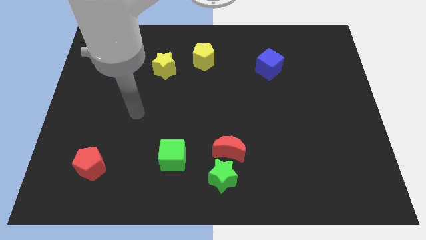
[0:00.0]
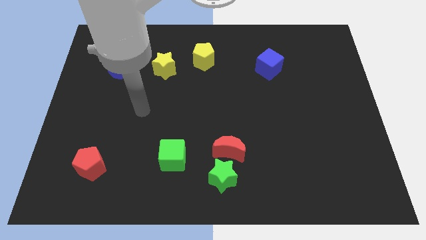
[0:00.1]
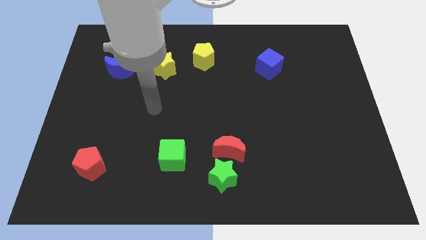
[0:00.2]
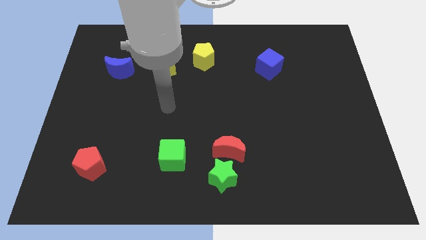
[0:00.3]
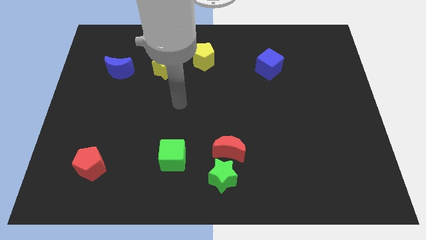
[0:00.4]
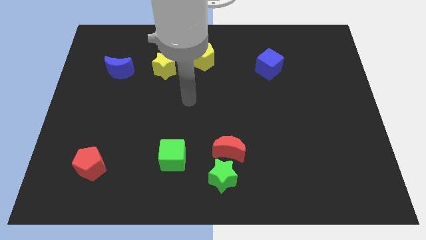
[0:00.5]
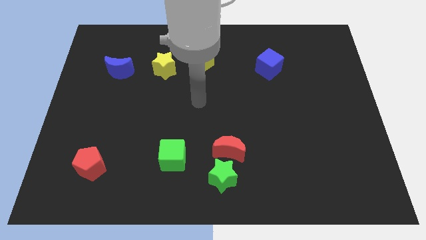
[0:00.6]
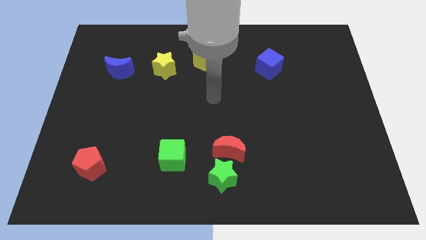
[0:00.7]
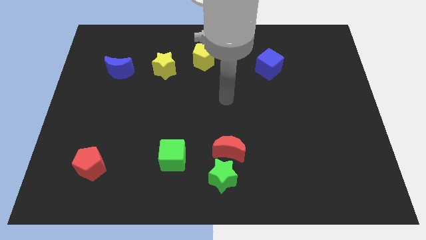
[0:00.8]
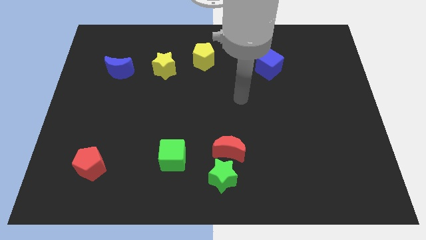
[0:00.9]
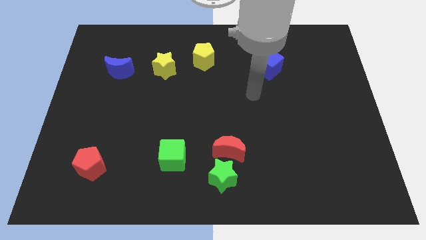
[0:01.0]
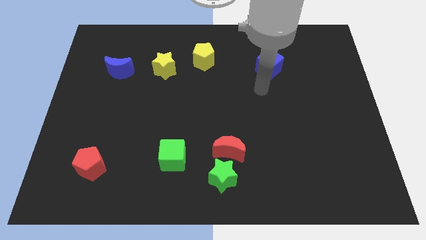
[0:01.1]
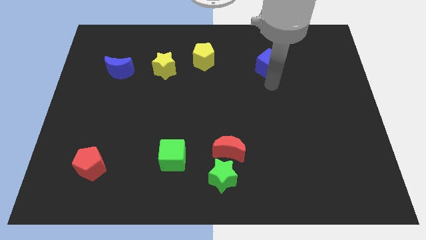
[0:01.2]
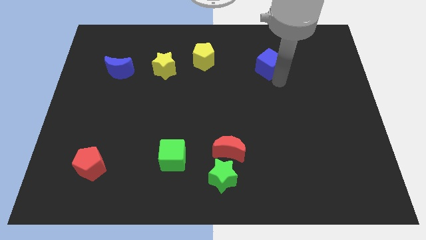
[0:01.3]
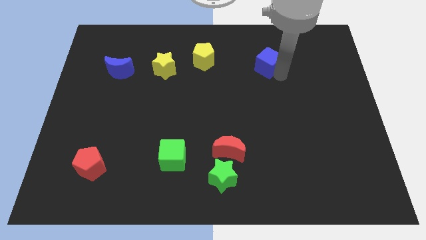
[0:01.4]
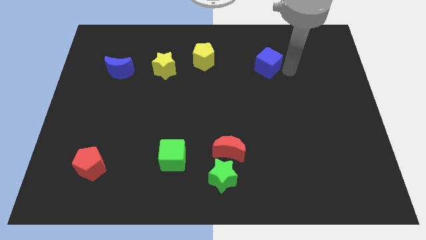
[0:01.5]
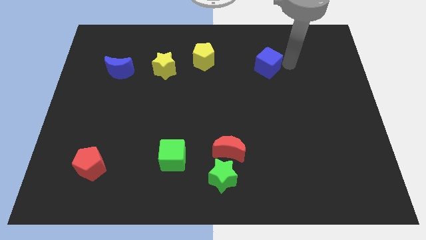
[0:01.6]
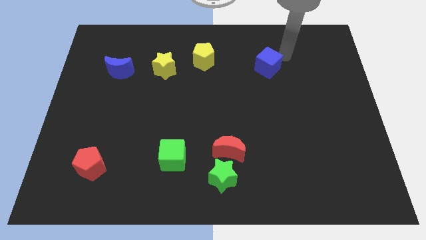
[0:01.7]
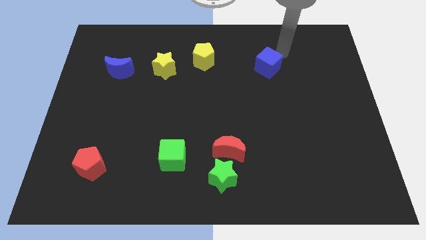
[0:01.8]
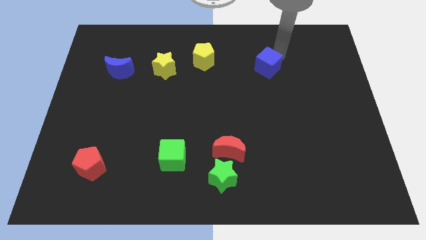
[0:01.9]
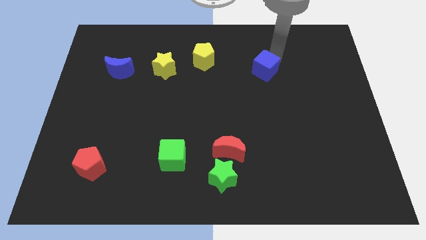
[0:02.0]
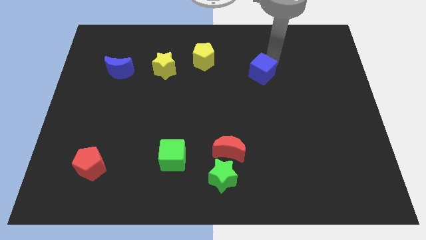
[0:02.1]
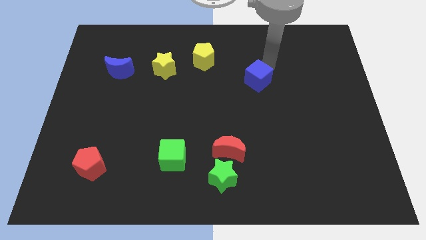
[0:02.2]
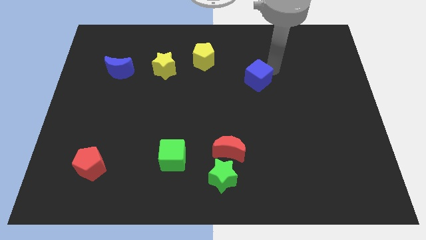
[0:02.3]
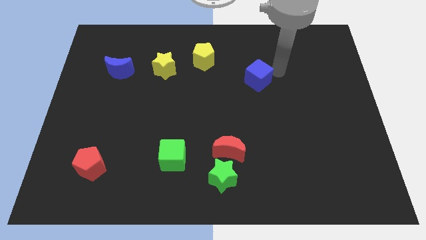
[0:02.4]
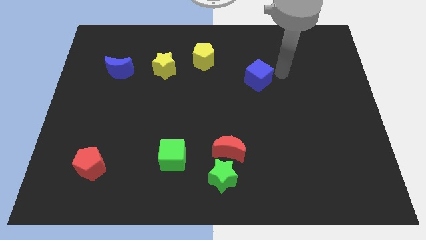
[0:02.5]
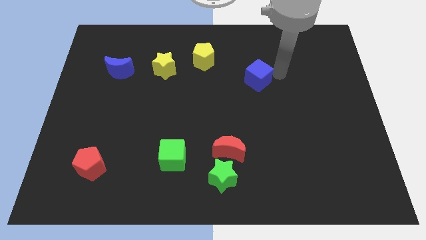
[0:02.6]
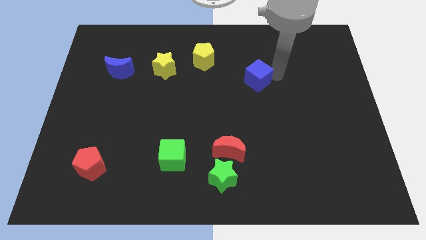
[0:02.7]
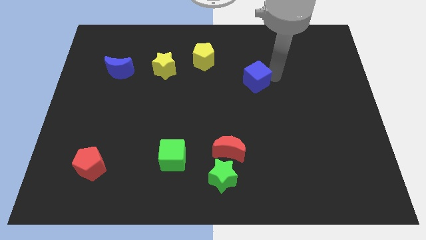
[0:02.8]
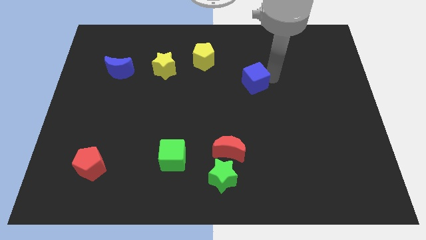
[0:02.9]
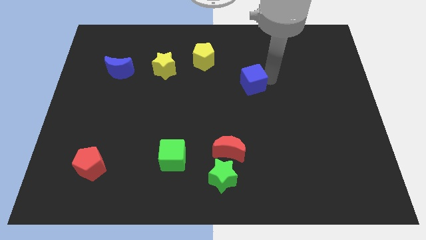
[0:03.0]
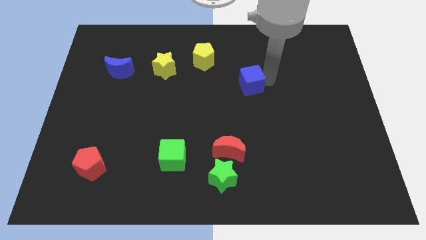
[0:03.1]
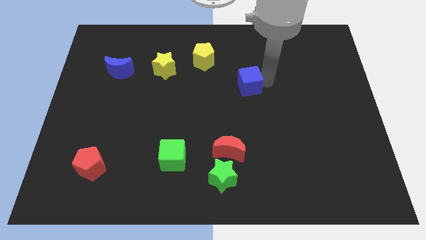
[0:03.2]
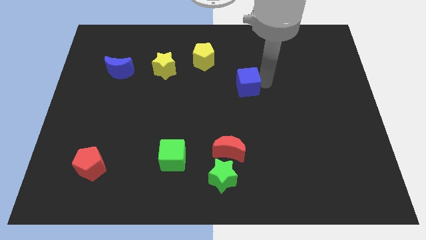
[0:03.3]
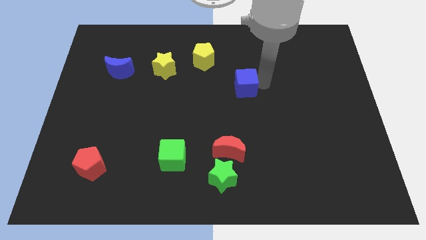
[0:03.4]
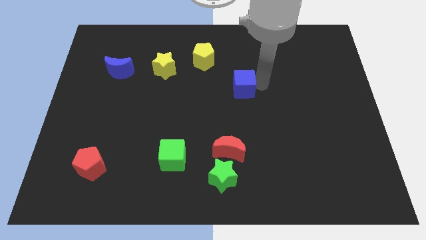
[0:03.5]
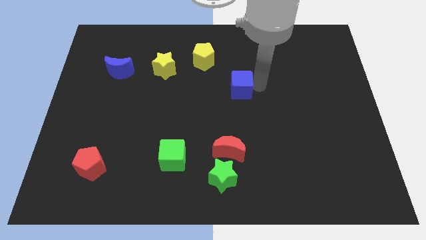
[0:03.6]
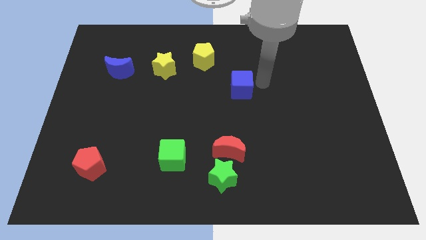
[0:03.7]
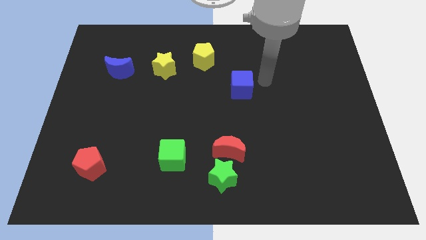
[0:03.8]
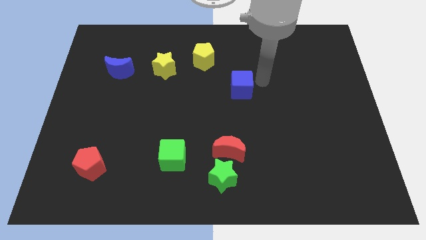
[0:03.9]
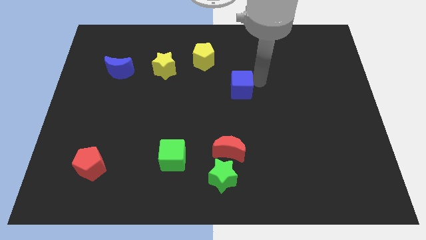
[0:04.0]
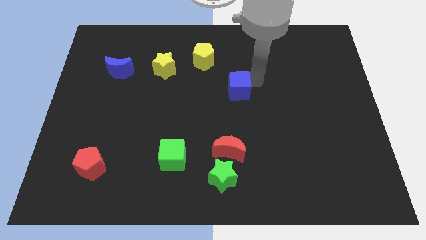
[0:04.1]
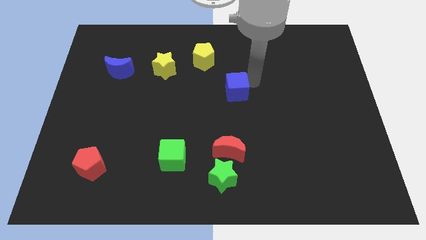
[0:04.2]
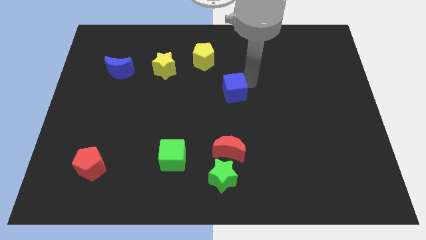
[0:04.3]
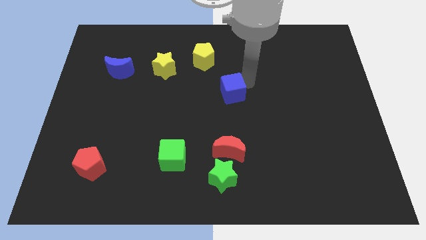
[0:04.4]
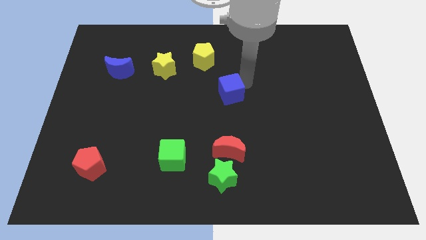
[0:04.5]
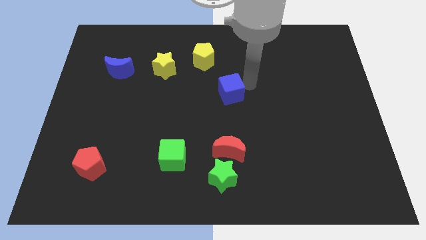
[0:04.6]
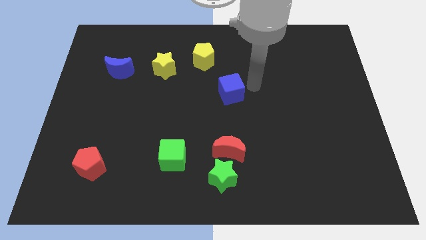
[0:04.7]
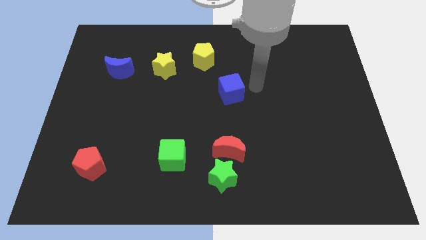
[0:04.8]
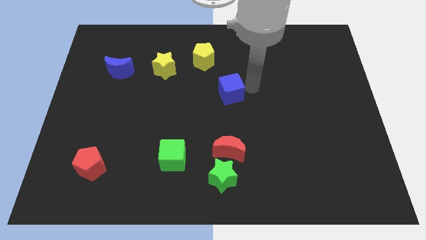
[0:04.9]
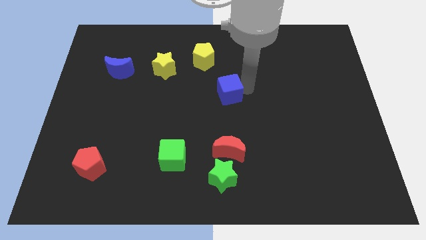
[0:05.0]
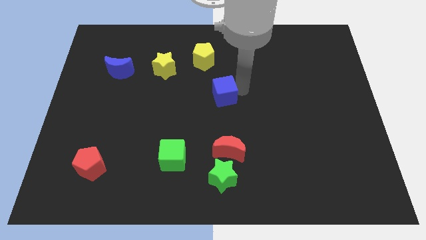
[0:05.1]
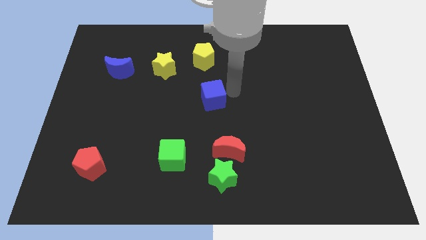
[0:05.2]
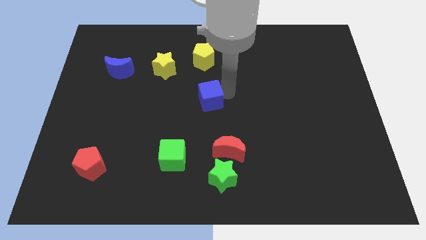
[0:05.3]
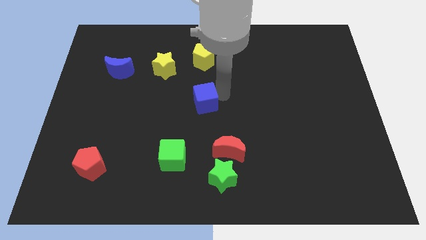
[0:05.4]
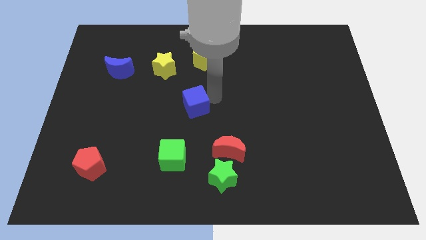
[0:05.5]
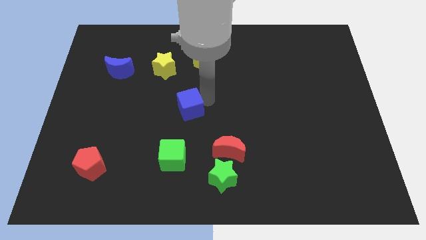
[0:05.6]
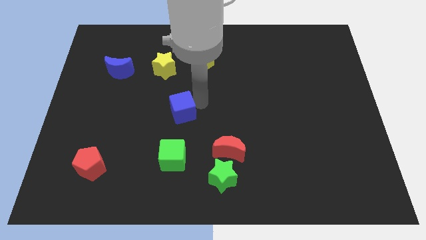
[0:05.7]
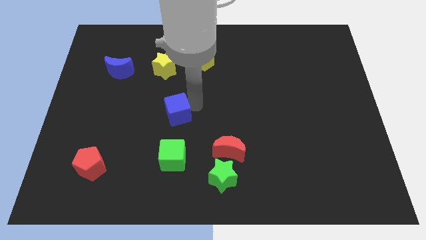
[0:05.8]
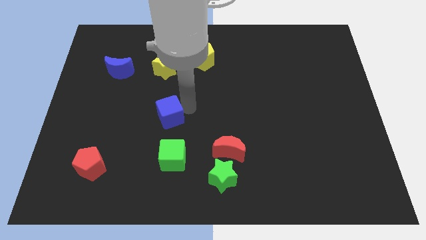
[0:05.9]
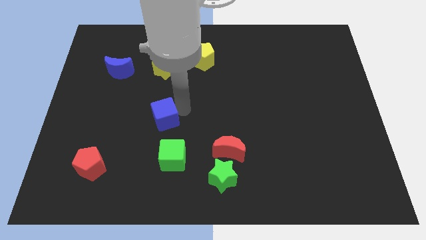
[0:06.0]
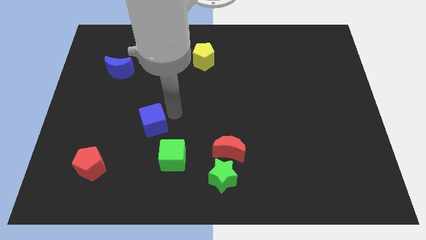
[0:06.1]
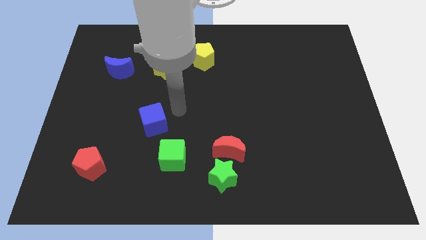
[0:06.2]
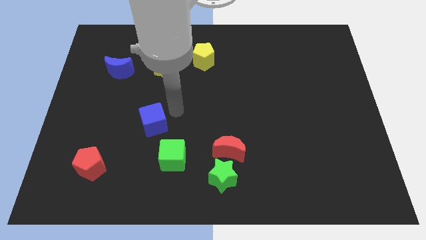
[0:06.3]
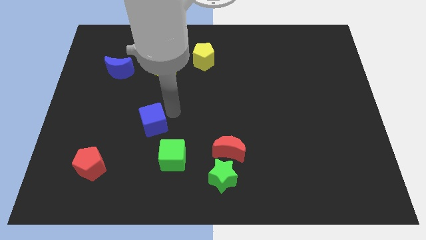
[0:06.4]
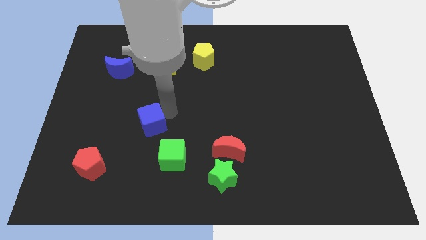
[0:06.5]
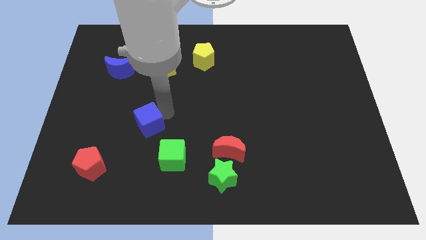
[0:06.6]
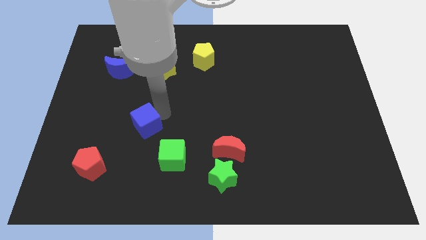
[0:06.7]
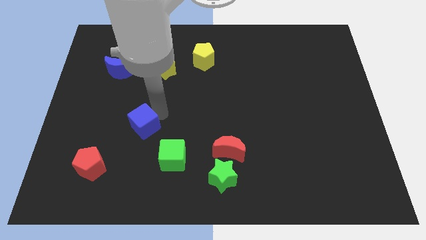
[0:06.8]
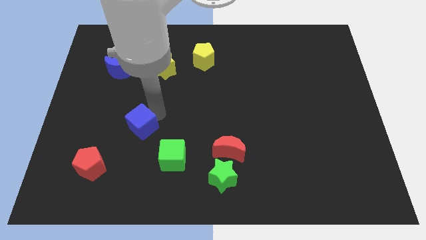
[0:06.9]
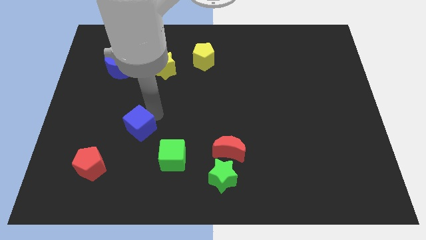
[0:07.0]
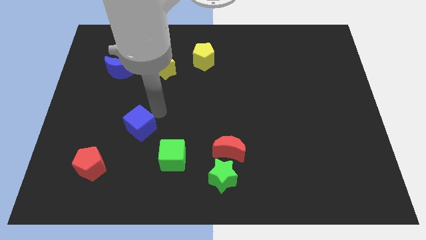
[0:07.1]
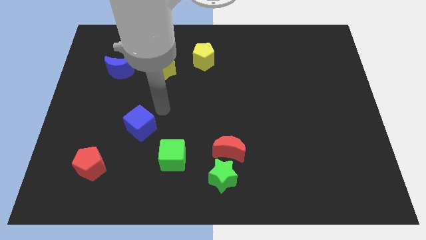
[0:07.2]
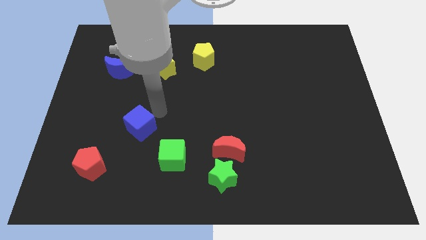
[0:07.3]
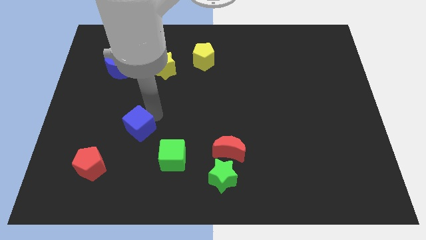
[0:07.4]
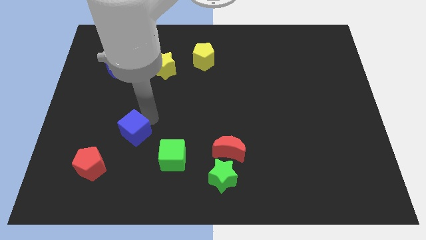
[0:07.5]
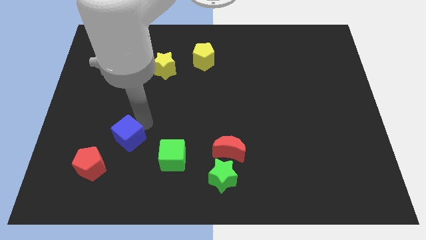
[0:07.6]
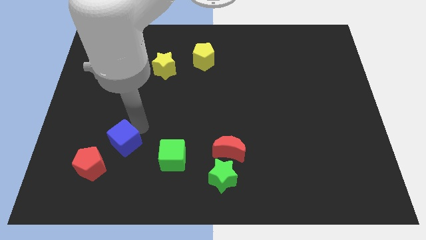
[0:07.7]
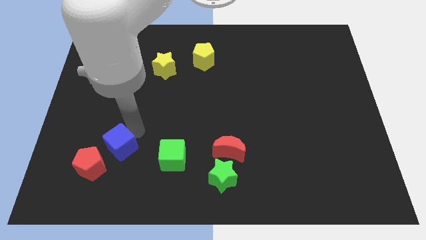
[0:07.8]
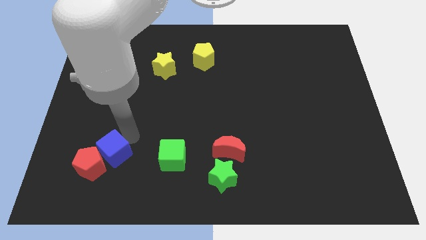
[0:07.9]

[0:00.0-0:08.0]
move the blue cube to the red pentagon
